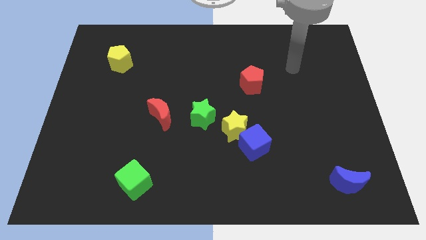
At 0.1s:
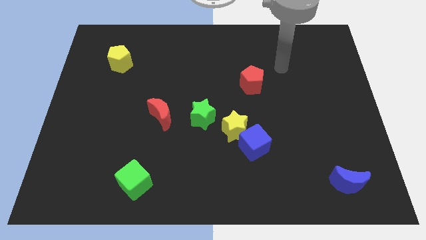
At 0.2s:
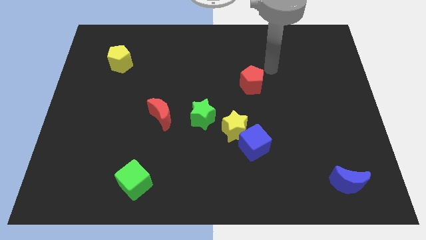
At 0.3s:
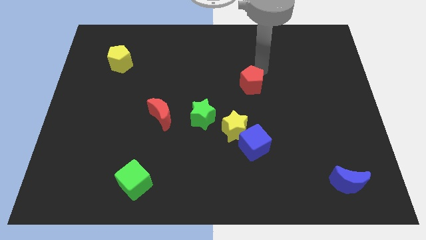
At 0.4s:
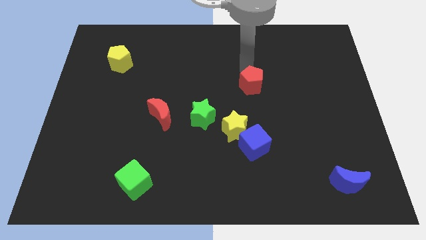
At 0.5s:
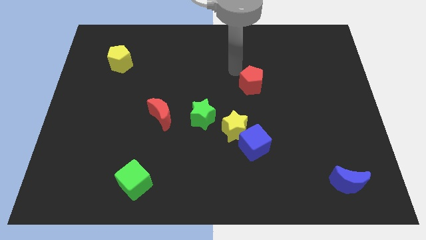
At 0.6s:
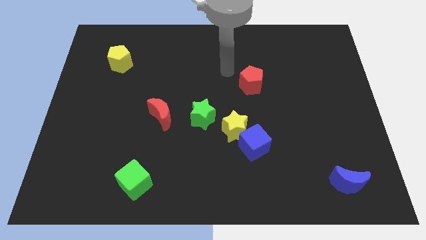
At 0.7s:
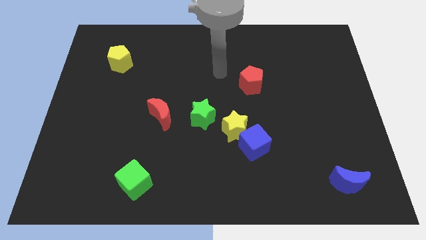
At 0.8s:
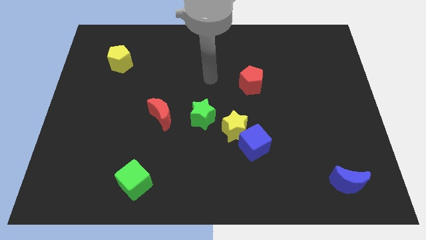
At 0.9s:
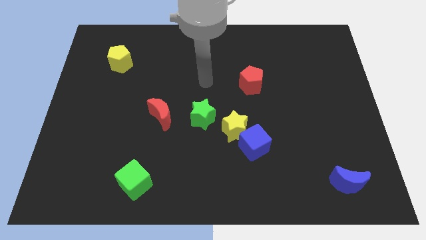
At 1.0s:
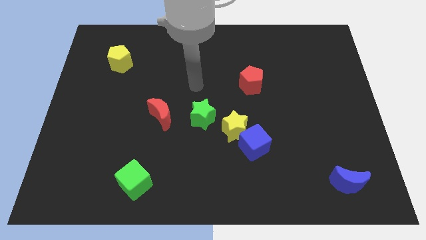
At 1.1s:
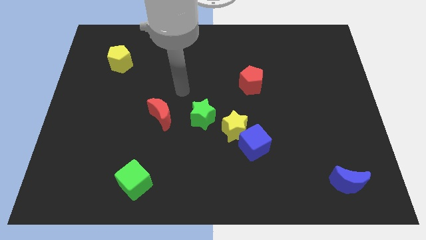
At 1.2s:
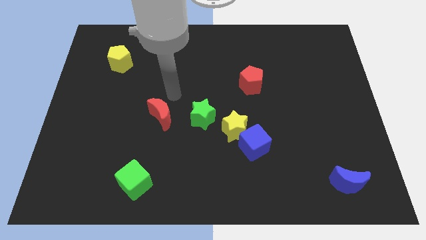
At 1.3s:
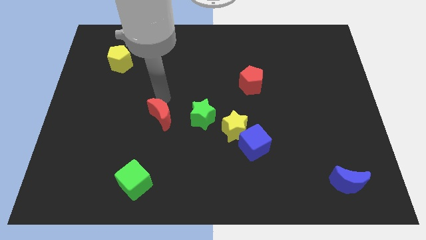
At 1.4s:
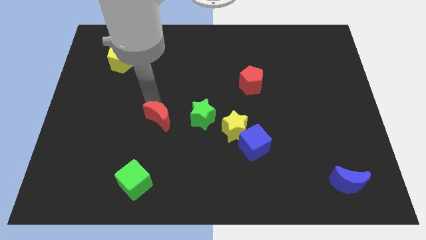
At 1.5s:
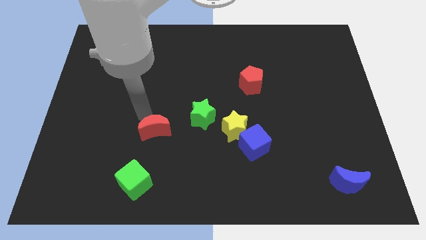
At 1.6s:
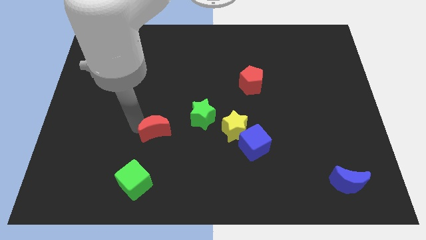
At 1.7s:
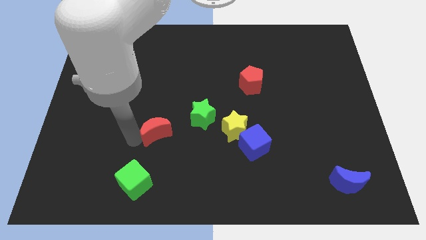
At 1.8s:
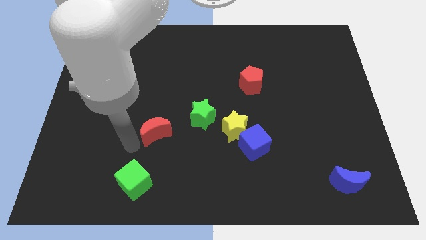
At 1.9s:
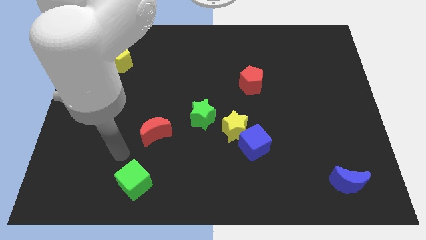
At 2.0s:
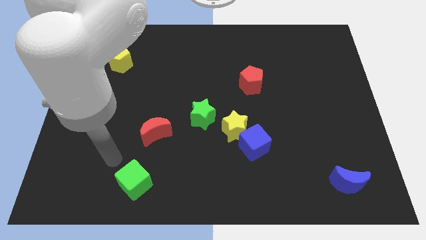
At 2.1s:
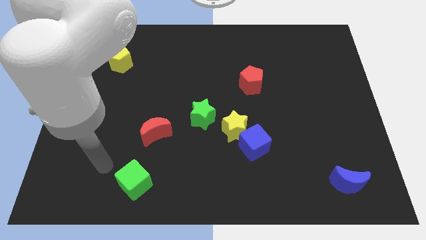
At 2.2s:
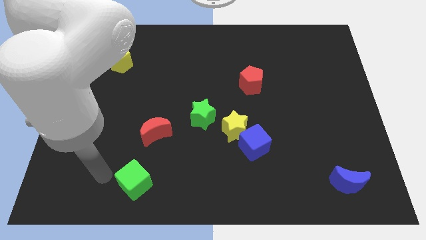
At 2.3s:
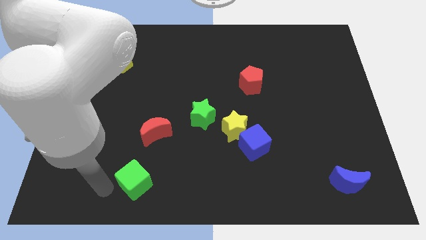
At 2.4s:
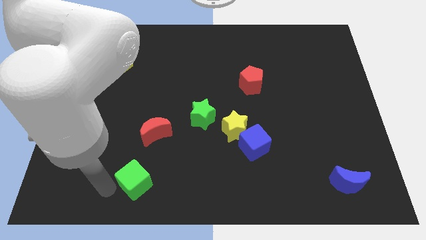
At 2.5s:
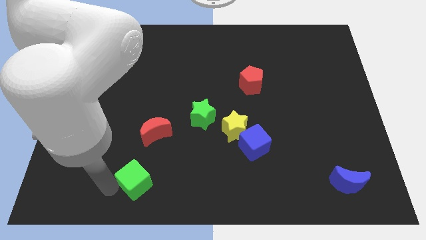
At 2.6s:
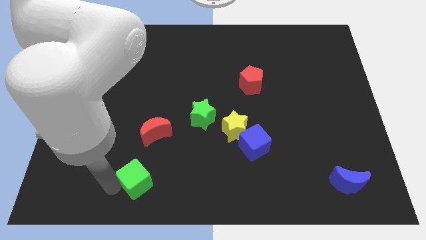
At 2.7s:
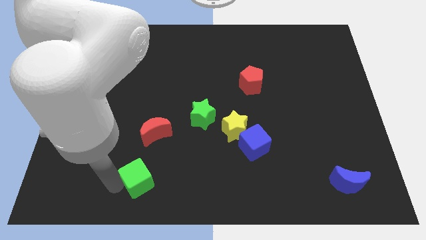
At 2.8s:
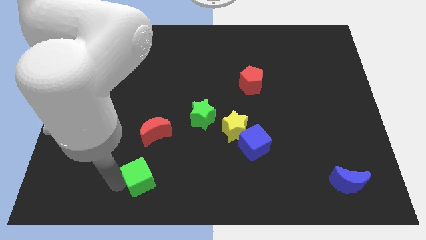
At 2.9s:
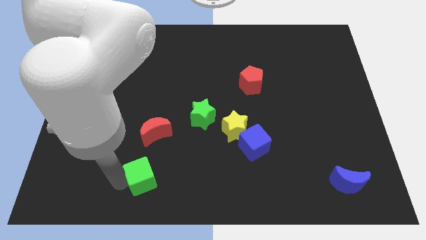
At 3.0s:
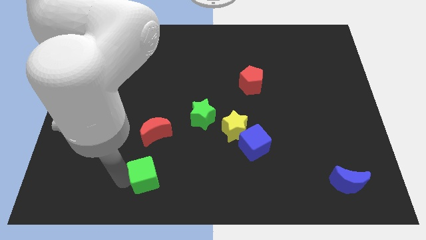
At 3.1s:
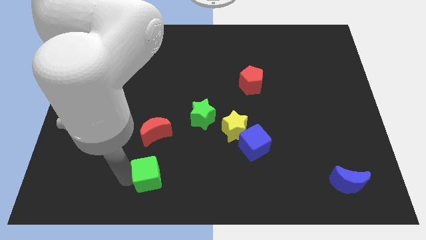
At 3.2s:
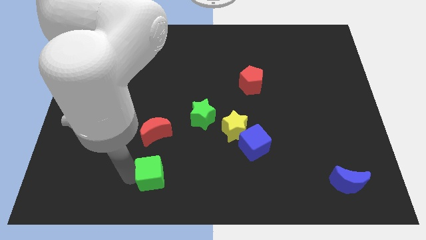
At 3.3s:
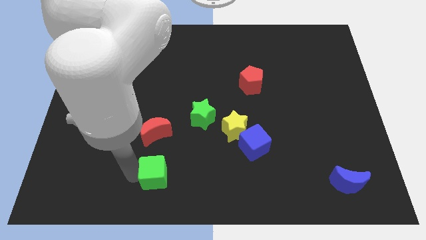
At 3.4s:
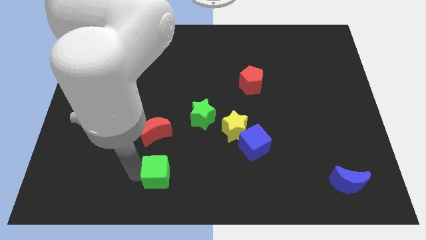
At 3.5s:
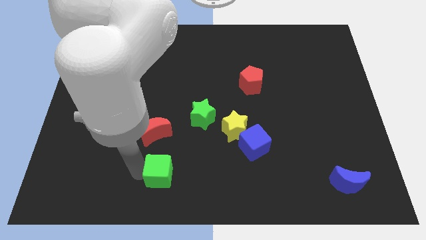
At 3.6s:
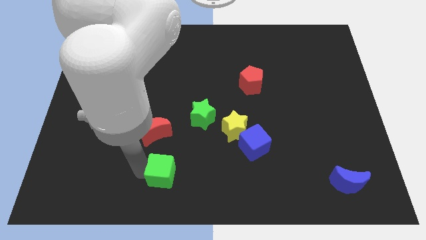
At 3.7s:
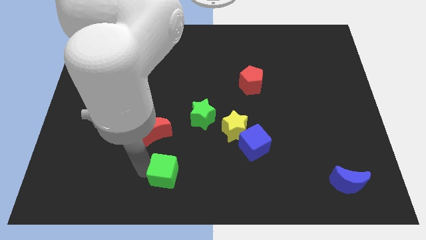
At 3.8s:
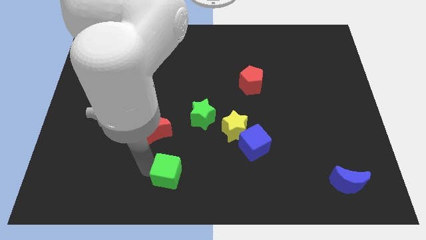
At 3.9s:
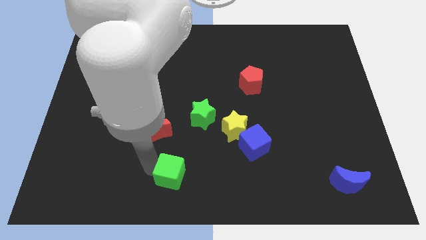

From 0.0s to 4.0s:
slightly push the green cube to the right

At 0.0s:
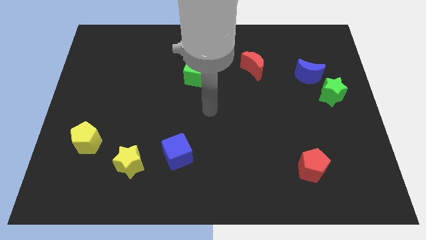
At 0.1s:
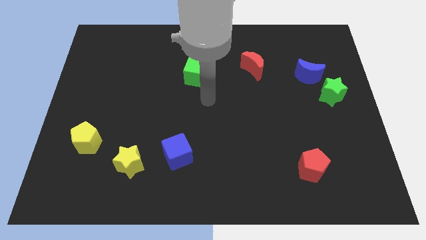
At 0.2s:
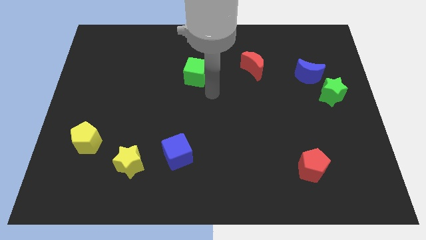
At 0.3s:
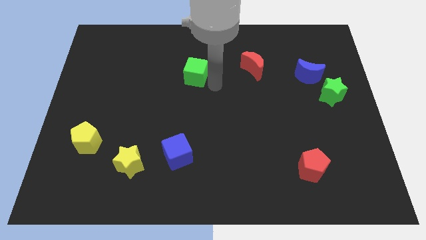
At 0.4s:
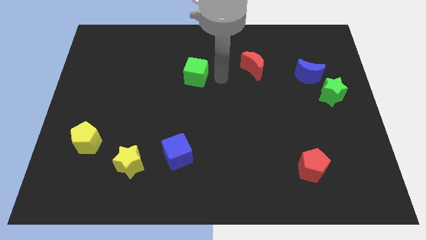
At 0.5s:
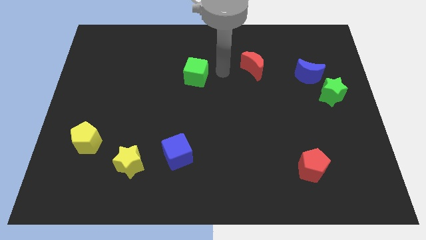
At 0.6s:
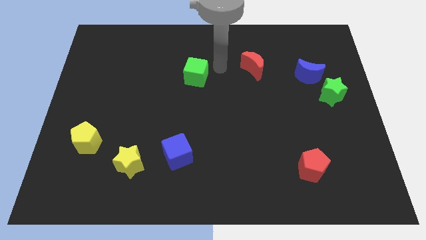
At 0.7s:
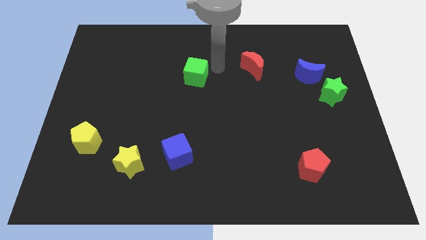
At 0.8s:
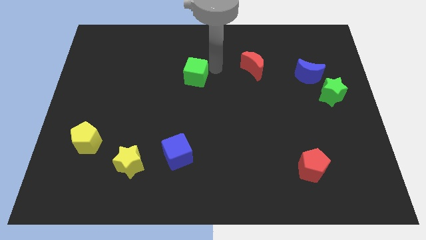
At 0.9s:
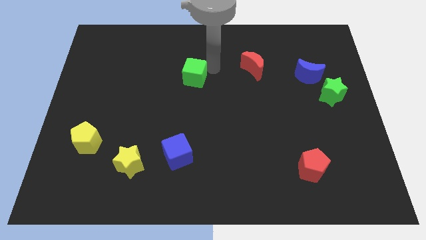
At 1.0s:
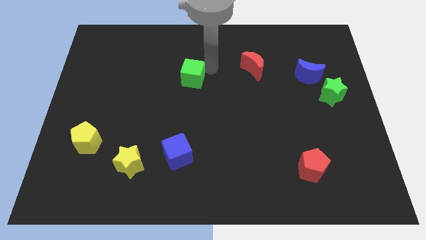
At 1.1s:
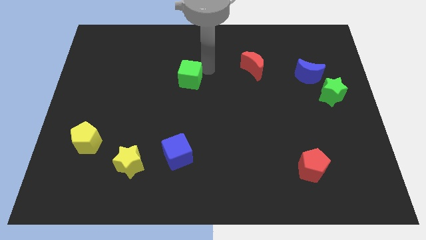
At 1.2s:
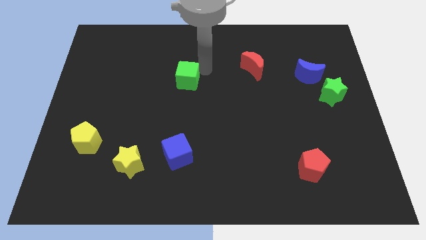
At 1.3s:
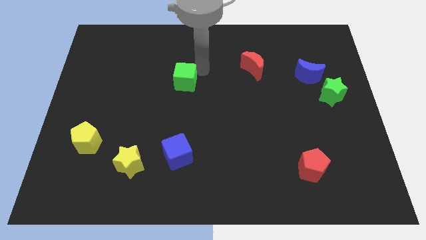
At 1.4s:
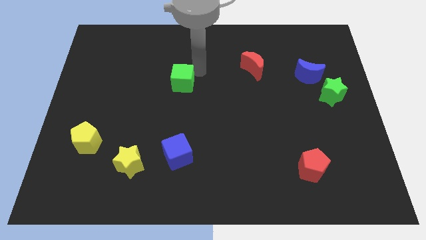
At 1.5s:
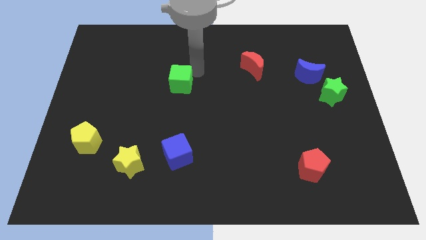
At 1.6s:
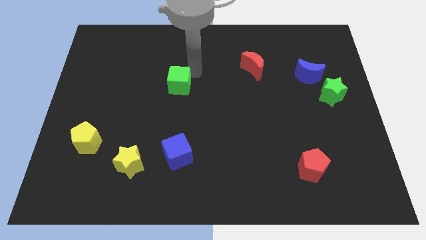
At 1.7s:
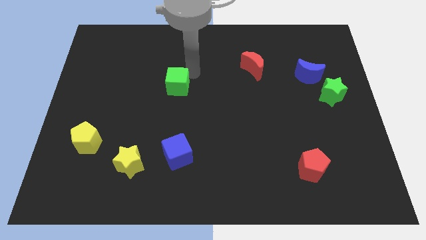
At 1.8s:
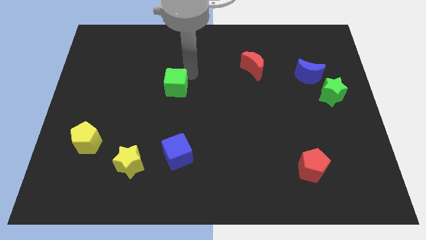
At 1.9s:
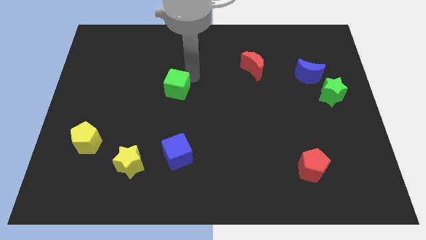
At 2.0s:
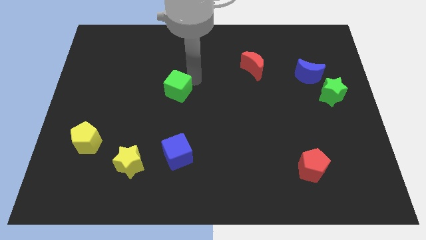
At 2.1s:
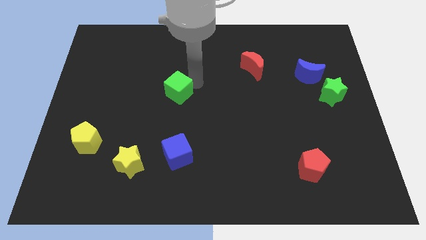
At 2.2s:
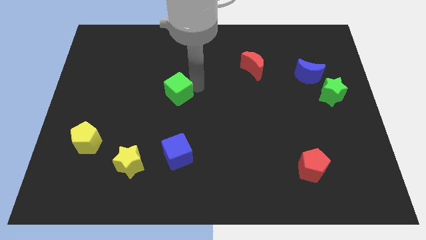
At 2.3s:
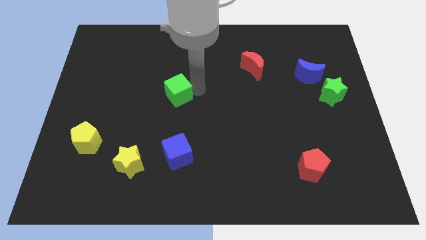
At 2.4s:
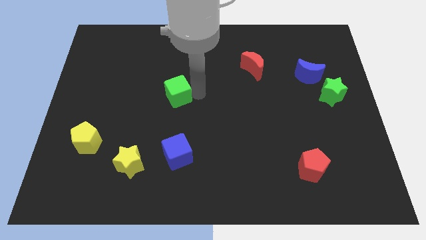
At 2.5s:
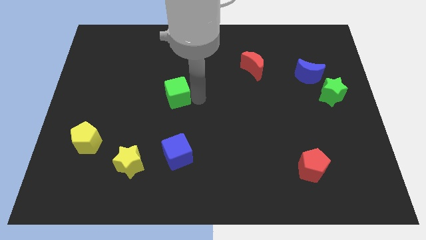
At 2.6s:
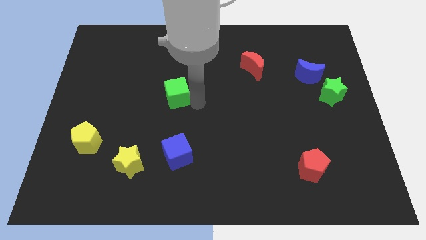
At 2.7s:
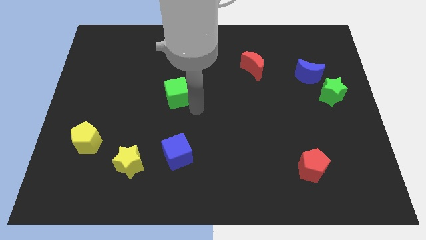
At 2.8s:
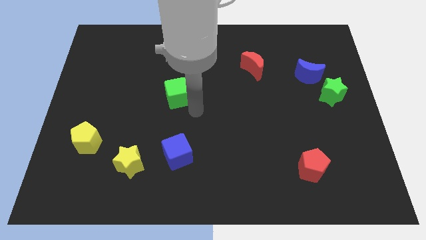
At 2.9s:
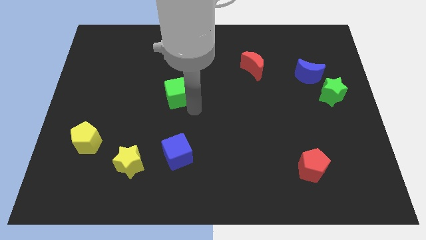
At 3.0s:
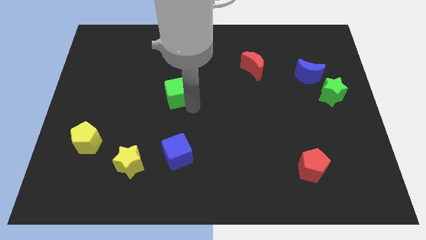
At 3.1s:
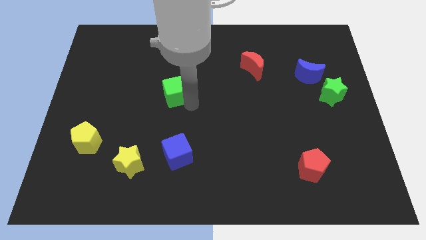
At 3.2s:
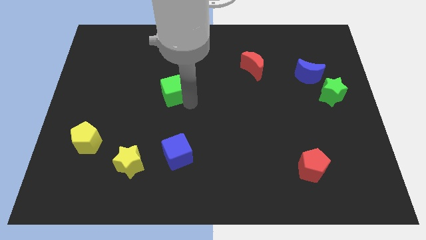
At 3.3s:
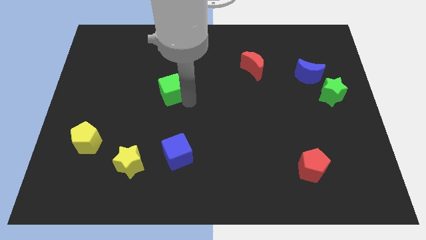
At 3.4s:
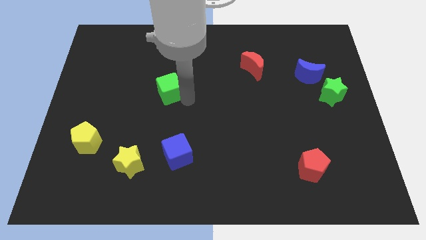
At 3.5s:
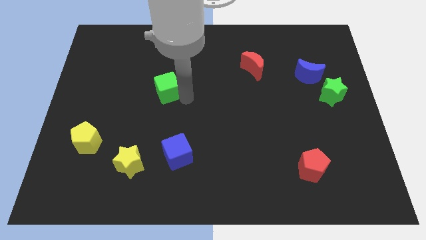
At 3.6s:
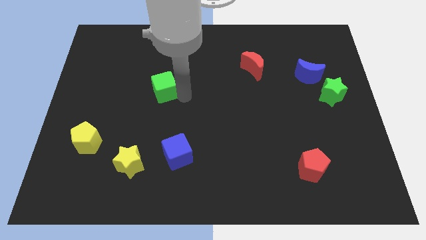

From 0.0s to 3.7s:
push the green cube a little bit left

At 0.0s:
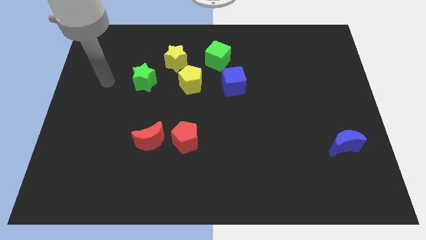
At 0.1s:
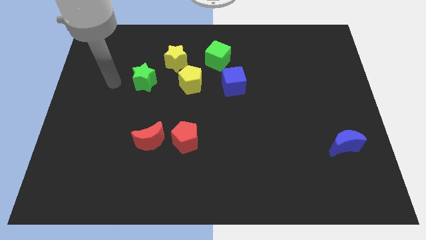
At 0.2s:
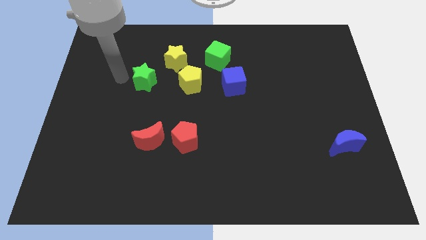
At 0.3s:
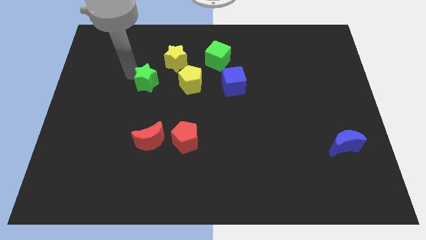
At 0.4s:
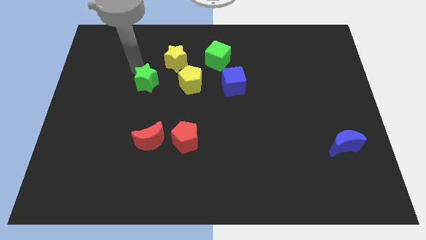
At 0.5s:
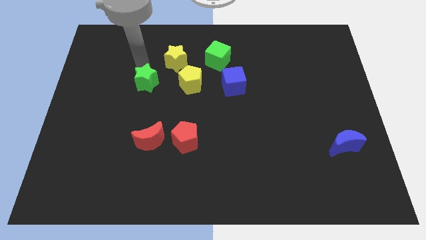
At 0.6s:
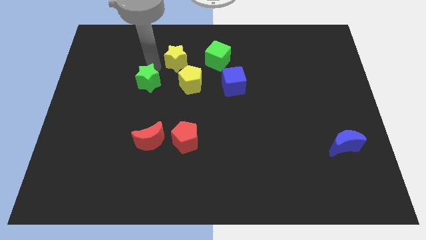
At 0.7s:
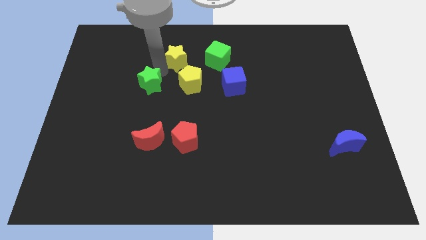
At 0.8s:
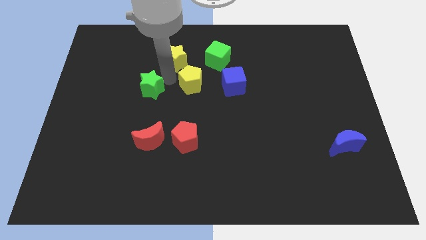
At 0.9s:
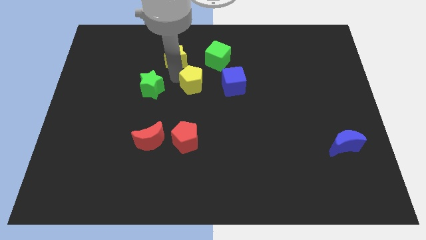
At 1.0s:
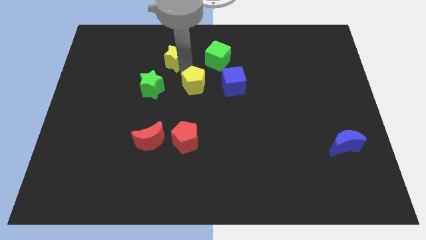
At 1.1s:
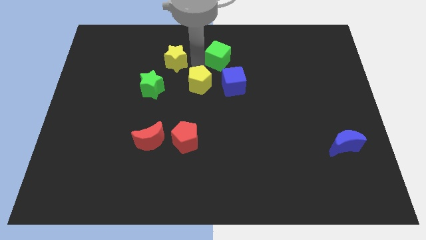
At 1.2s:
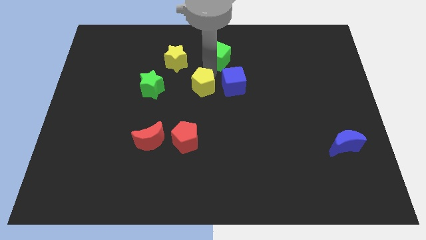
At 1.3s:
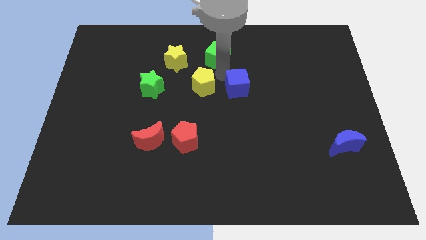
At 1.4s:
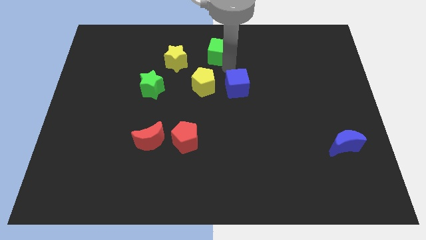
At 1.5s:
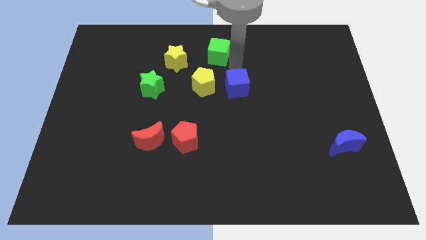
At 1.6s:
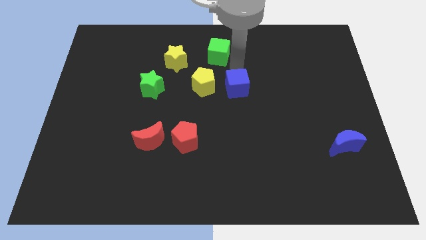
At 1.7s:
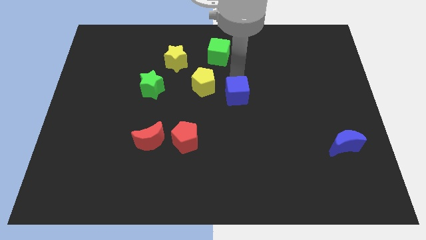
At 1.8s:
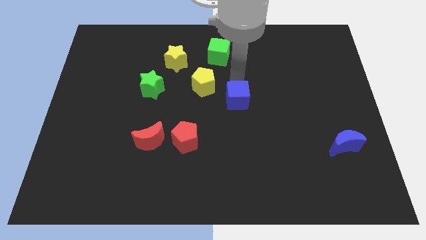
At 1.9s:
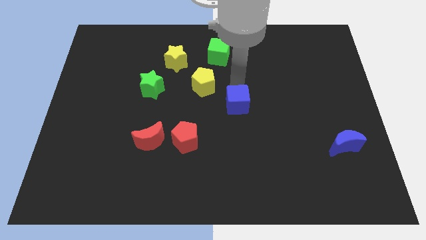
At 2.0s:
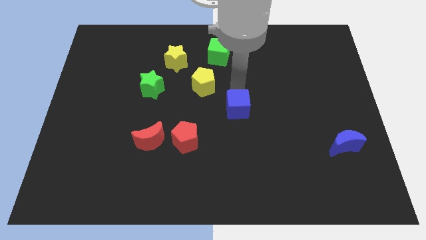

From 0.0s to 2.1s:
move the blue cube downwards a bit
